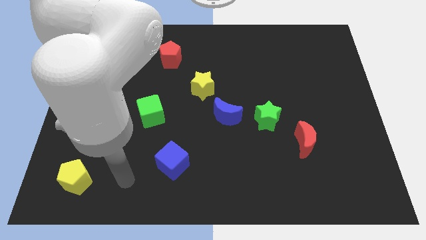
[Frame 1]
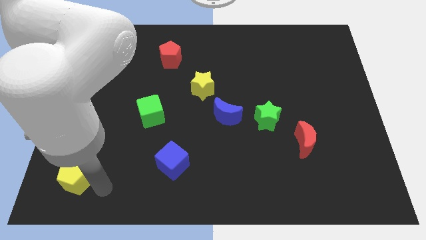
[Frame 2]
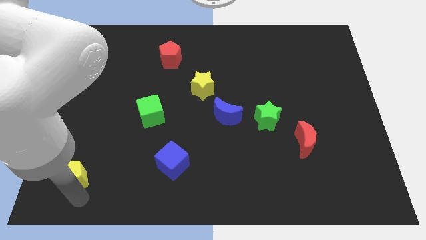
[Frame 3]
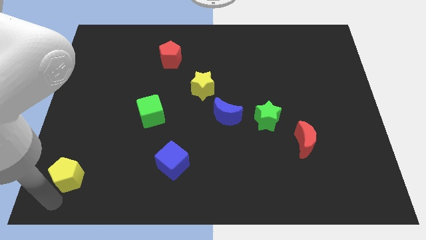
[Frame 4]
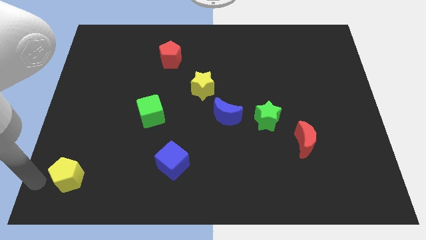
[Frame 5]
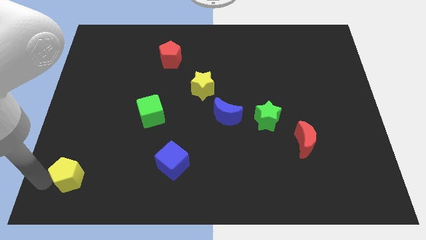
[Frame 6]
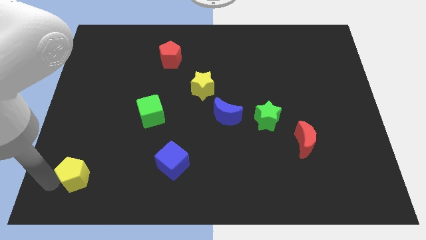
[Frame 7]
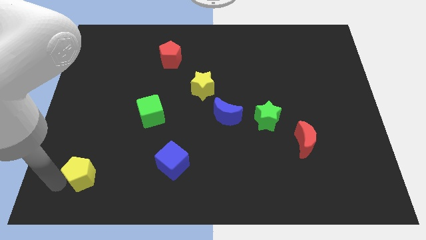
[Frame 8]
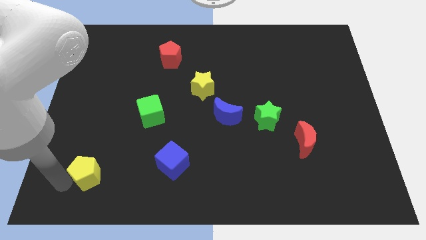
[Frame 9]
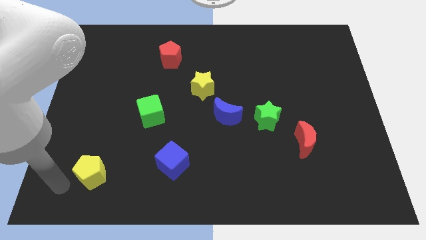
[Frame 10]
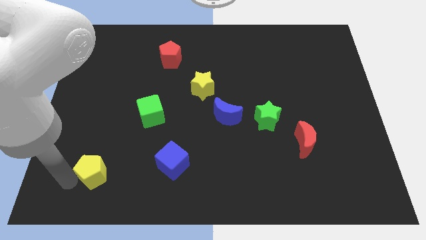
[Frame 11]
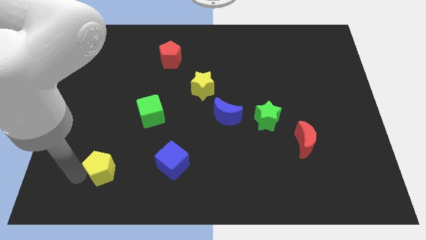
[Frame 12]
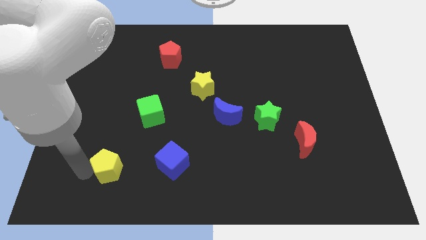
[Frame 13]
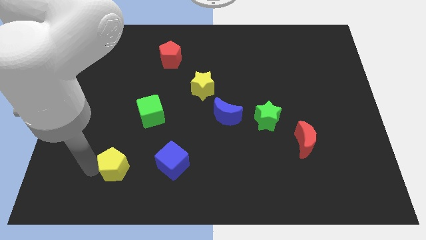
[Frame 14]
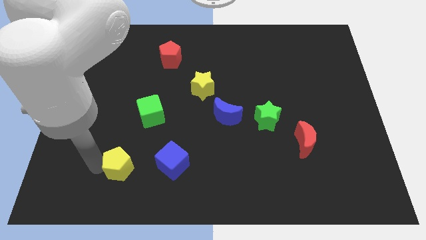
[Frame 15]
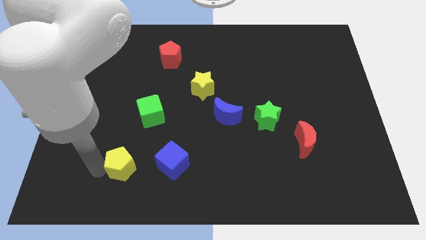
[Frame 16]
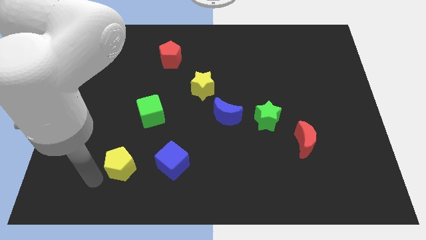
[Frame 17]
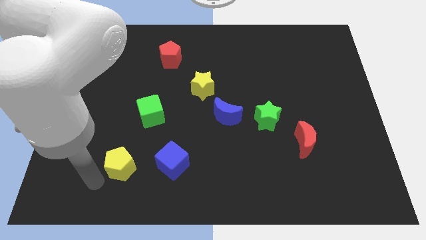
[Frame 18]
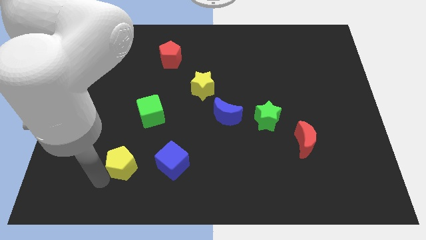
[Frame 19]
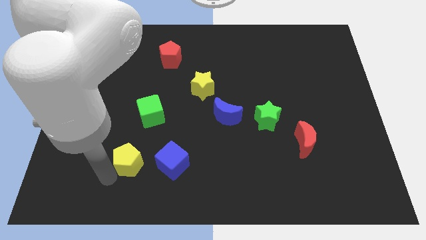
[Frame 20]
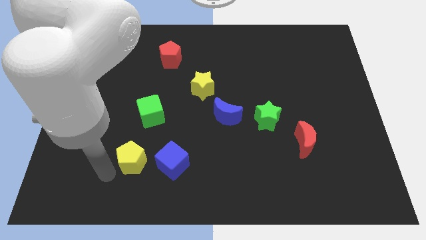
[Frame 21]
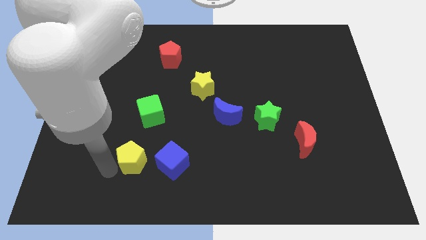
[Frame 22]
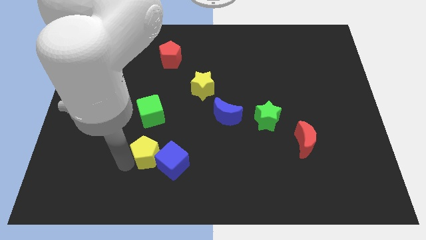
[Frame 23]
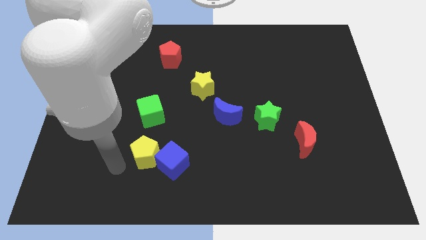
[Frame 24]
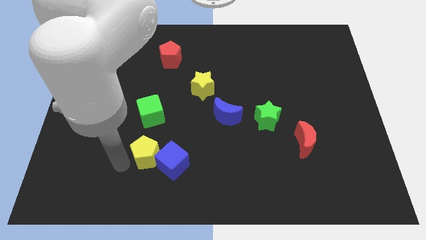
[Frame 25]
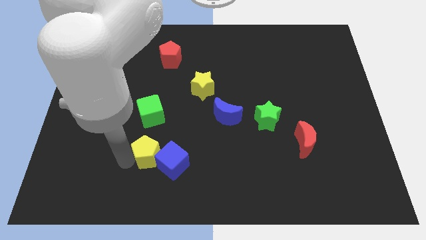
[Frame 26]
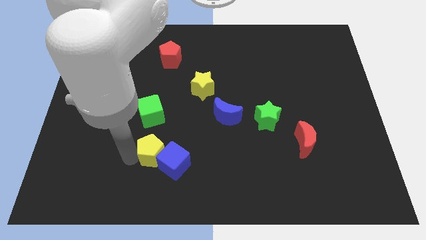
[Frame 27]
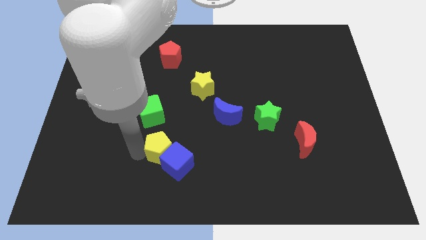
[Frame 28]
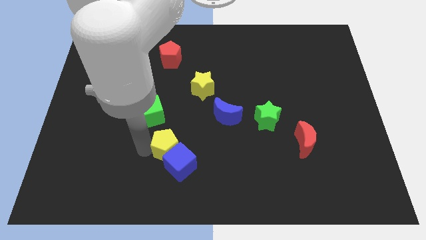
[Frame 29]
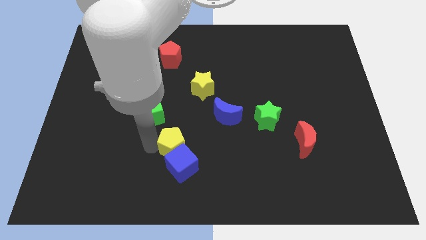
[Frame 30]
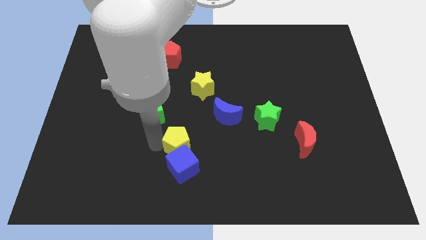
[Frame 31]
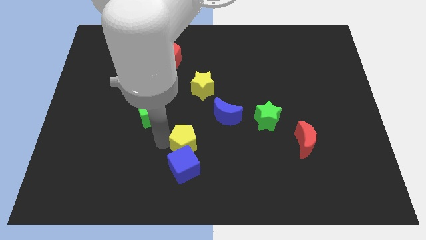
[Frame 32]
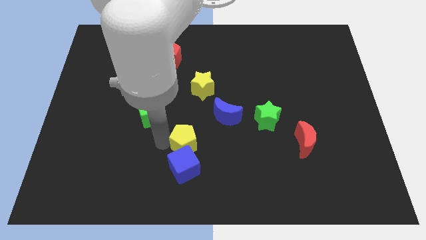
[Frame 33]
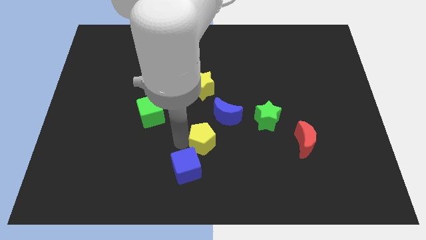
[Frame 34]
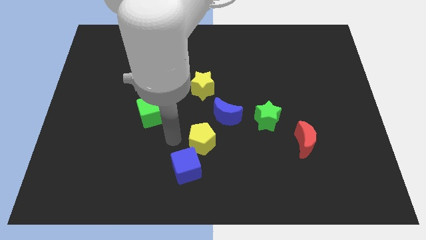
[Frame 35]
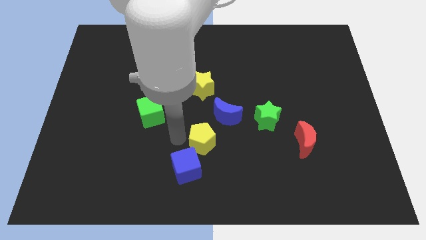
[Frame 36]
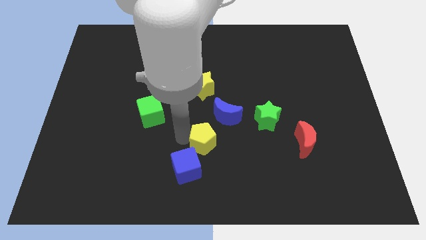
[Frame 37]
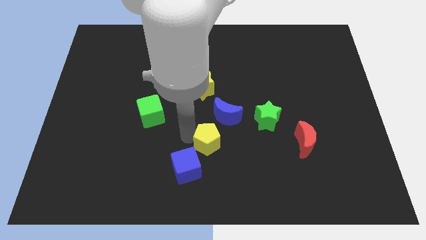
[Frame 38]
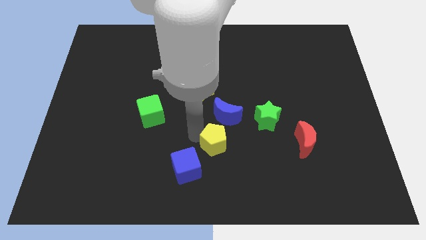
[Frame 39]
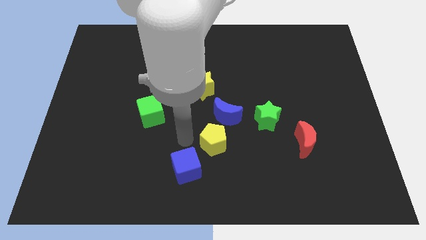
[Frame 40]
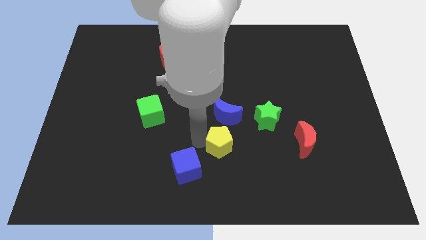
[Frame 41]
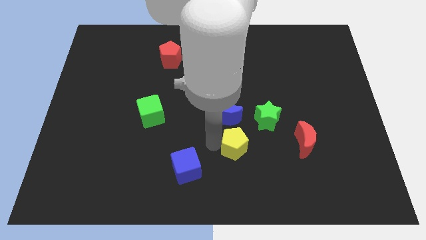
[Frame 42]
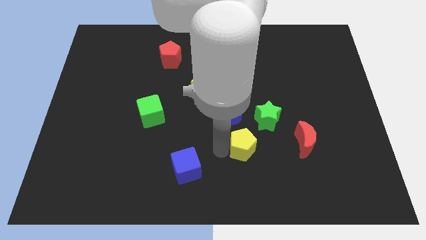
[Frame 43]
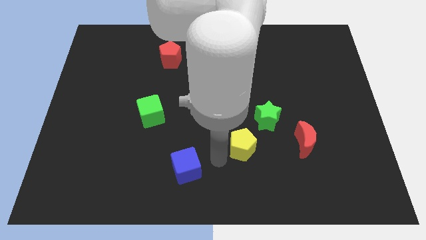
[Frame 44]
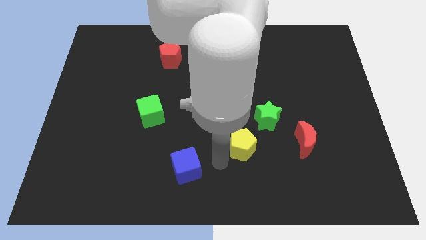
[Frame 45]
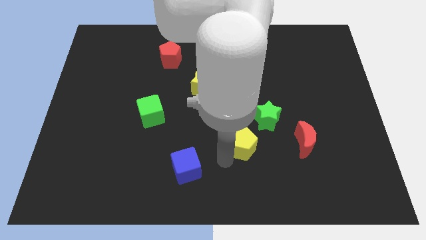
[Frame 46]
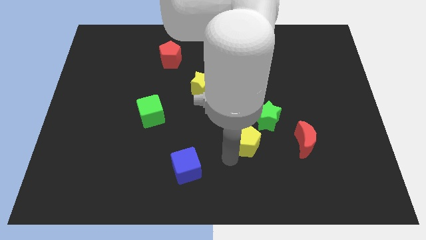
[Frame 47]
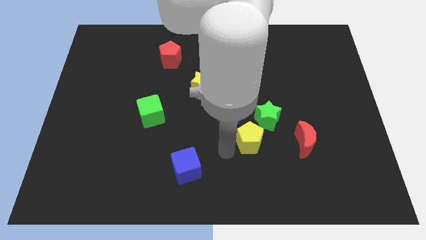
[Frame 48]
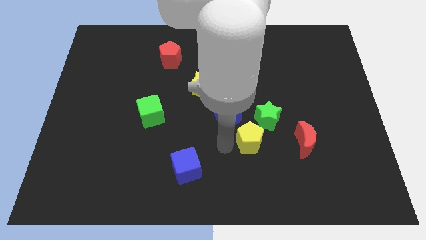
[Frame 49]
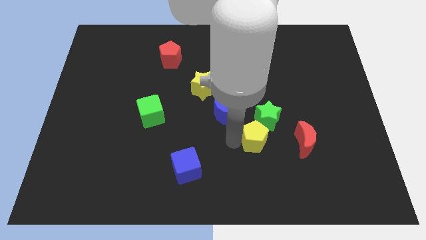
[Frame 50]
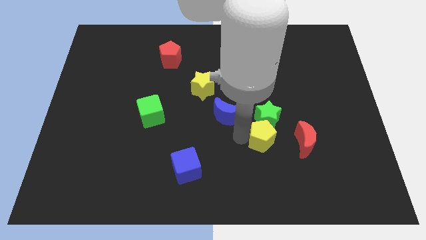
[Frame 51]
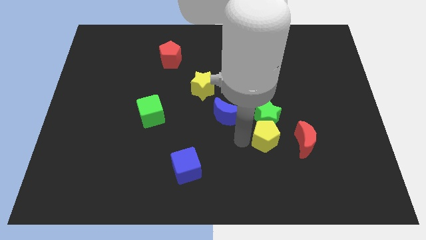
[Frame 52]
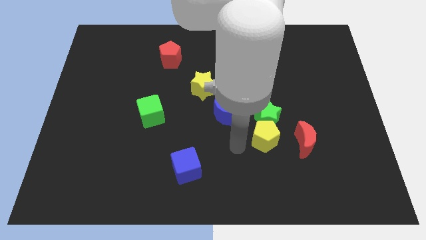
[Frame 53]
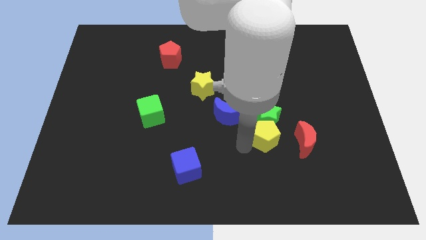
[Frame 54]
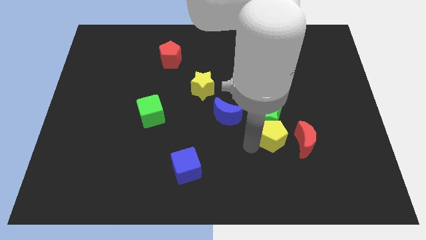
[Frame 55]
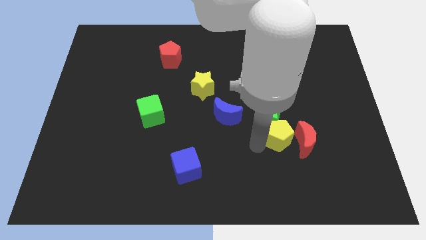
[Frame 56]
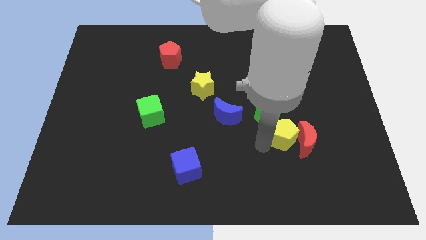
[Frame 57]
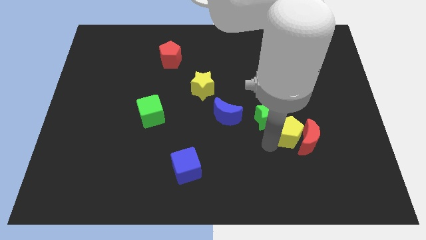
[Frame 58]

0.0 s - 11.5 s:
push the yellow pentagon just right of the green star

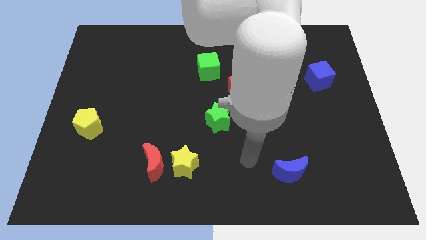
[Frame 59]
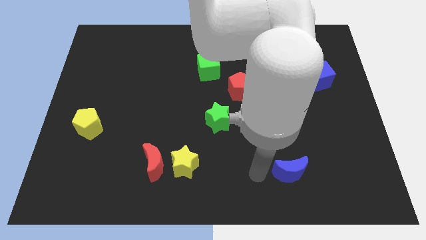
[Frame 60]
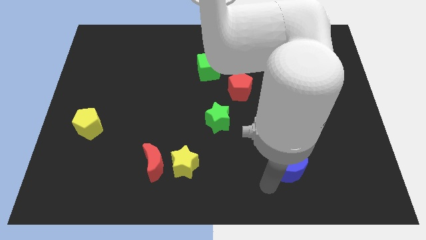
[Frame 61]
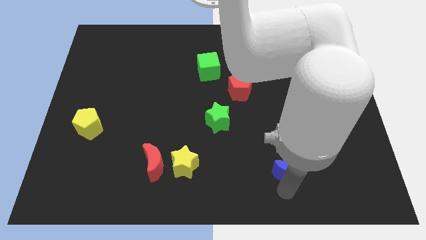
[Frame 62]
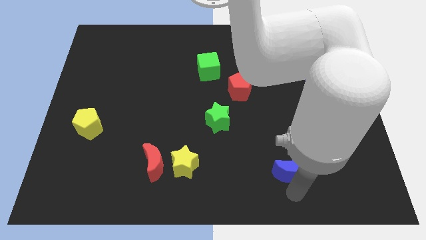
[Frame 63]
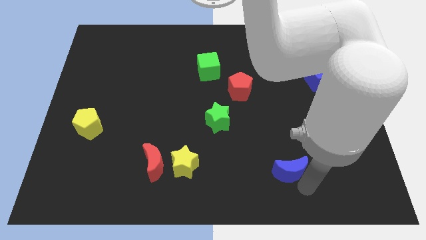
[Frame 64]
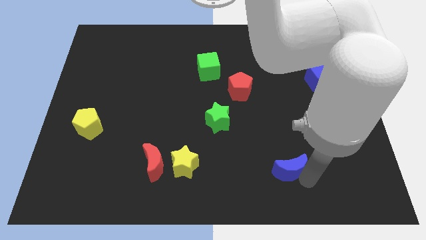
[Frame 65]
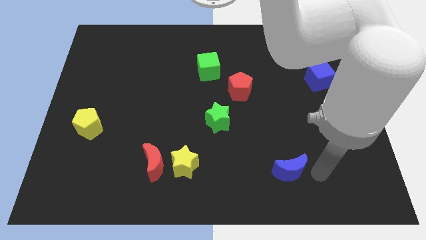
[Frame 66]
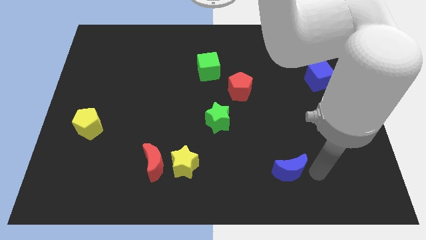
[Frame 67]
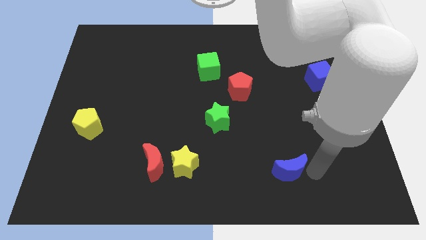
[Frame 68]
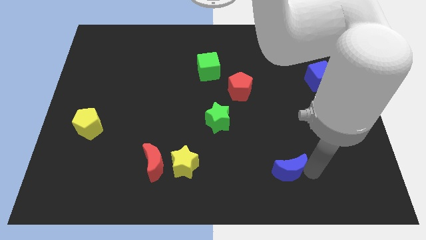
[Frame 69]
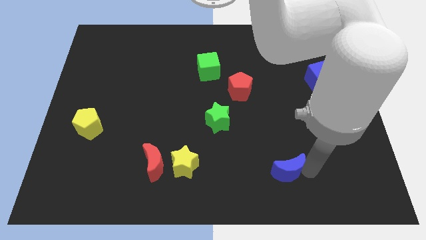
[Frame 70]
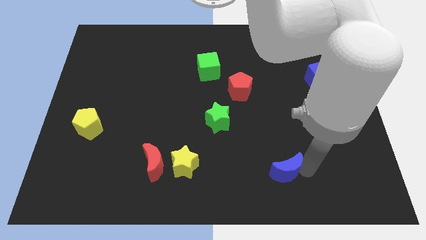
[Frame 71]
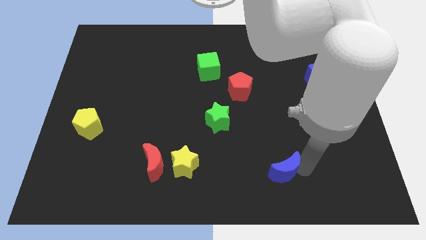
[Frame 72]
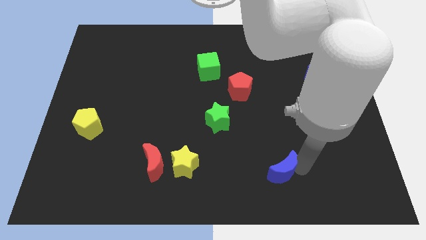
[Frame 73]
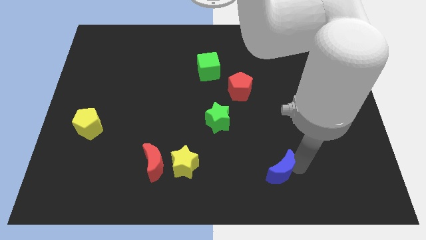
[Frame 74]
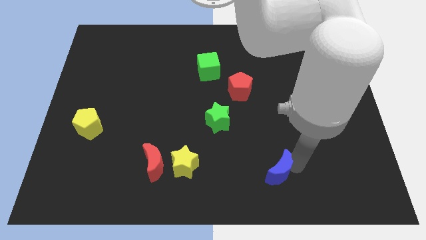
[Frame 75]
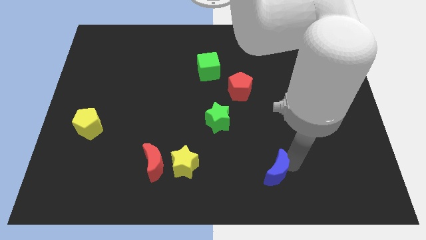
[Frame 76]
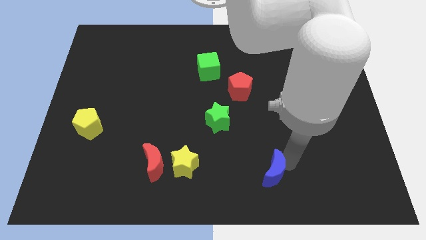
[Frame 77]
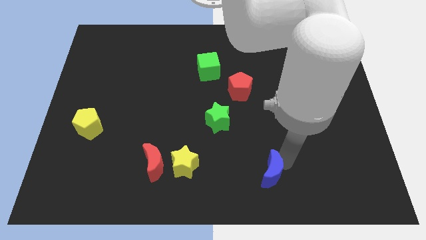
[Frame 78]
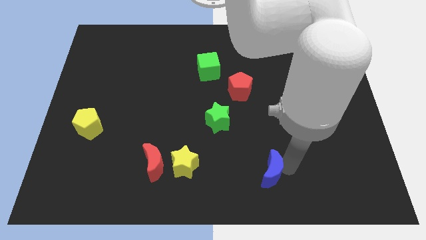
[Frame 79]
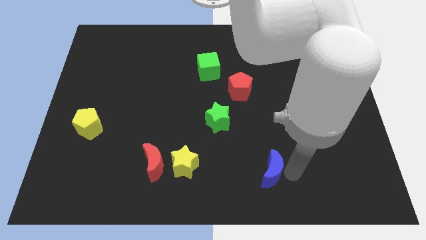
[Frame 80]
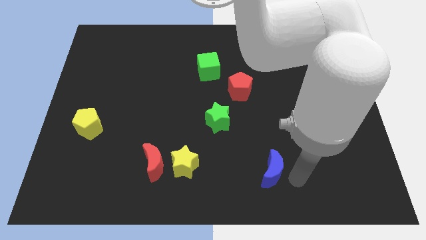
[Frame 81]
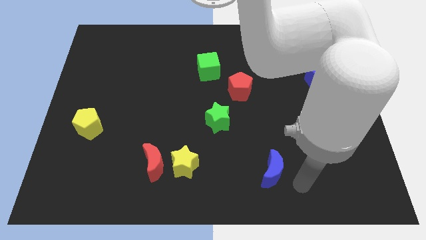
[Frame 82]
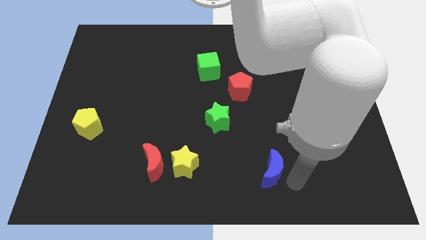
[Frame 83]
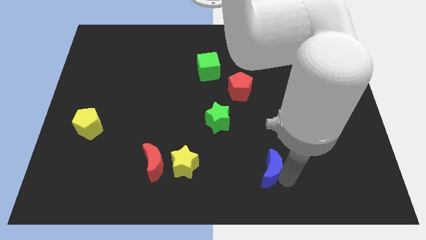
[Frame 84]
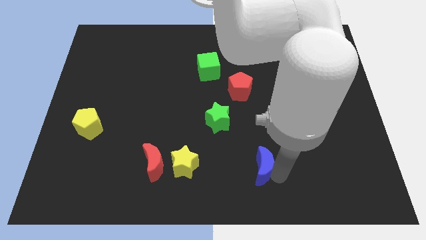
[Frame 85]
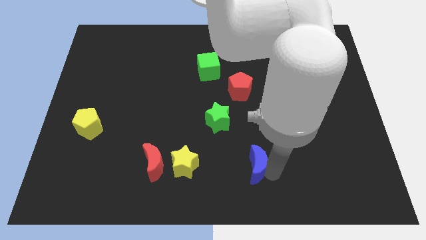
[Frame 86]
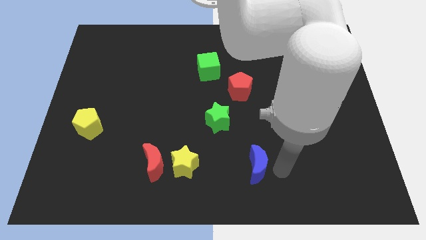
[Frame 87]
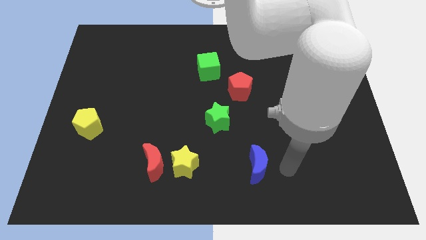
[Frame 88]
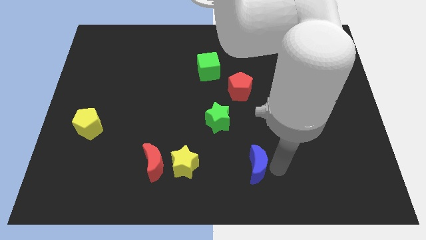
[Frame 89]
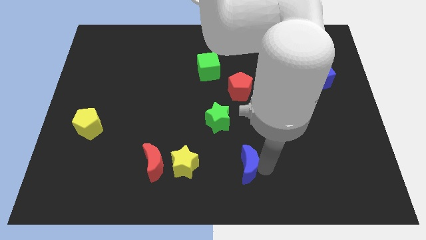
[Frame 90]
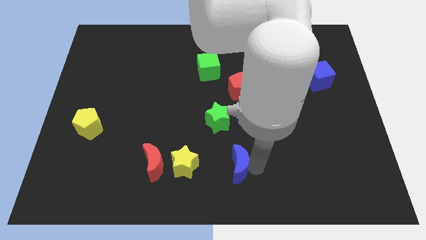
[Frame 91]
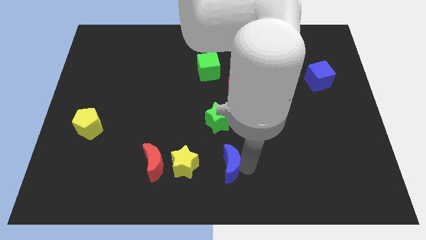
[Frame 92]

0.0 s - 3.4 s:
push the blue moon to the right of the red moon
